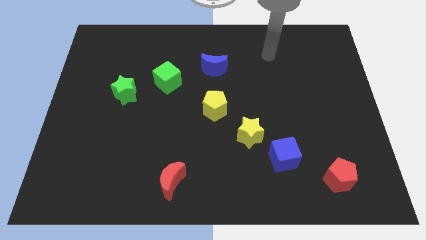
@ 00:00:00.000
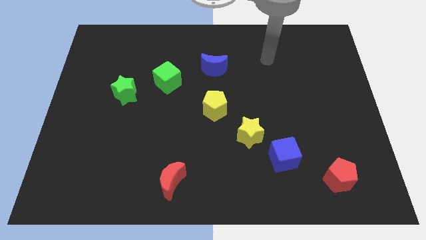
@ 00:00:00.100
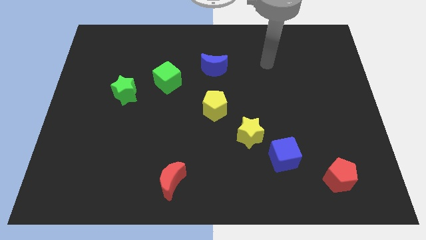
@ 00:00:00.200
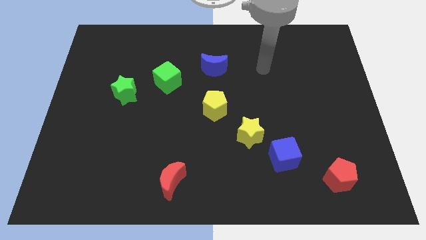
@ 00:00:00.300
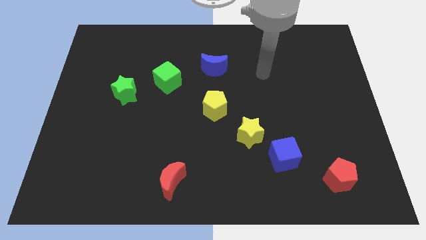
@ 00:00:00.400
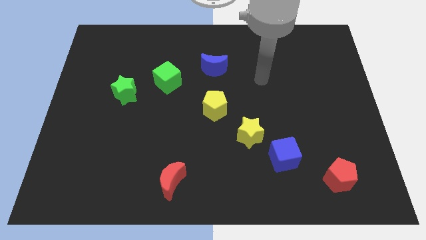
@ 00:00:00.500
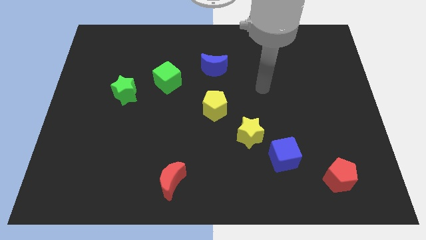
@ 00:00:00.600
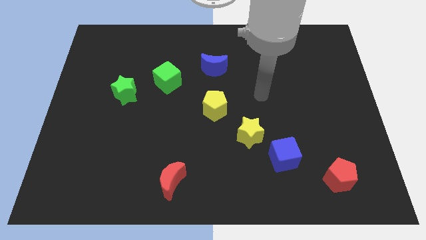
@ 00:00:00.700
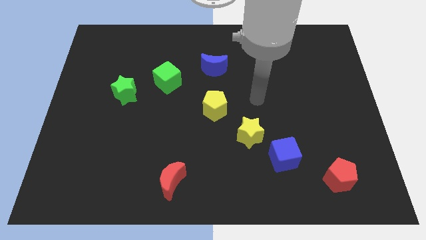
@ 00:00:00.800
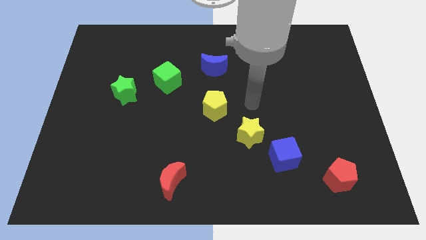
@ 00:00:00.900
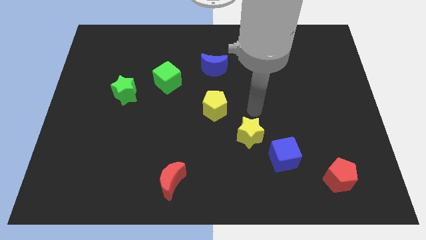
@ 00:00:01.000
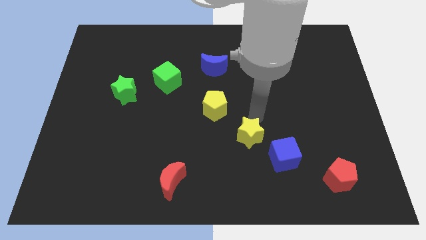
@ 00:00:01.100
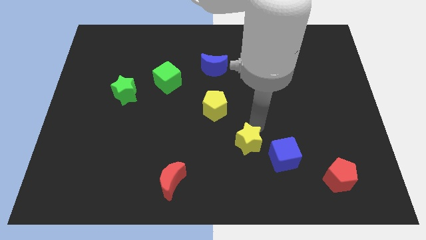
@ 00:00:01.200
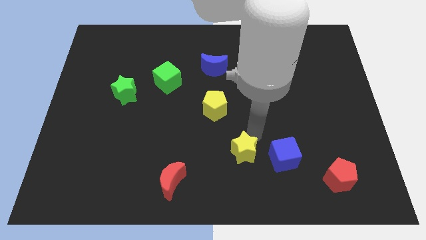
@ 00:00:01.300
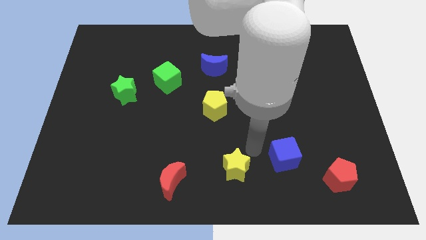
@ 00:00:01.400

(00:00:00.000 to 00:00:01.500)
separate the blue cube from the yellow star

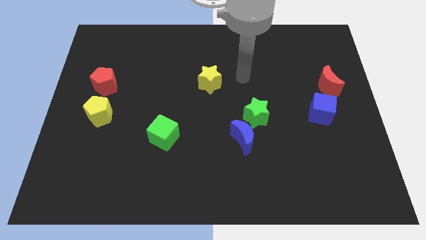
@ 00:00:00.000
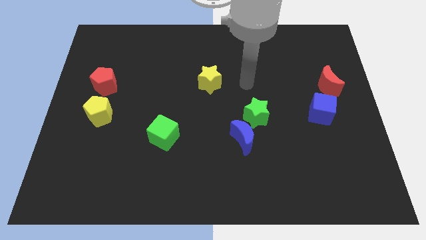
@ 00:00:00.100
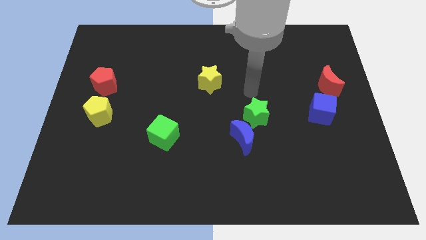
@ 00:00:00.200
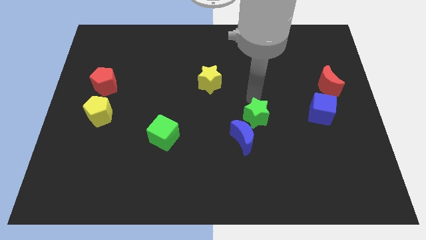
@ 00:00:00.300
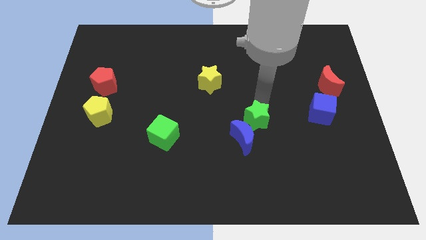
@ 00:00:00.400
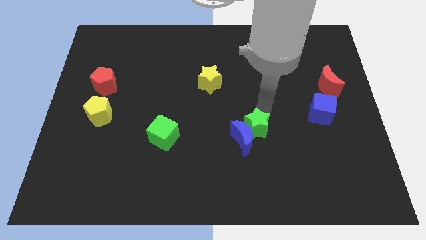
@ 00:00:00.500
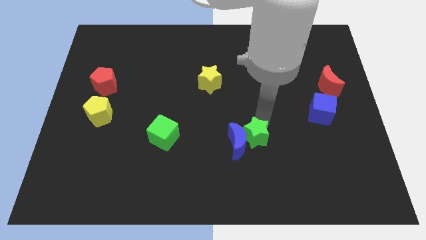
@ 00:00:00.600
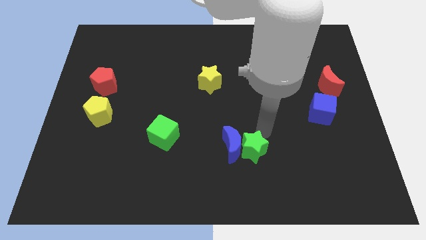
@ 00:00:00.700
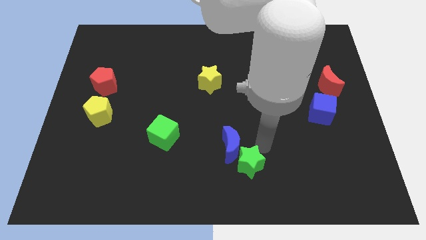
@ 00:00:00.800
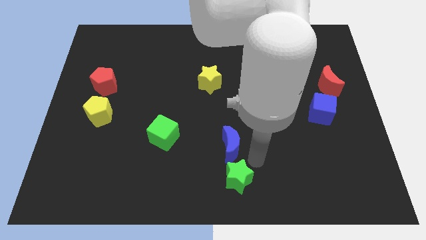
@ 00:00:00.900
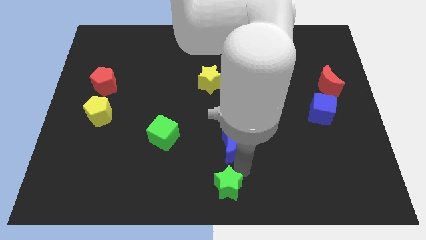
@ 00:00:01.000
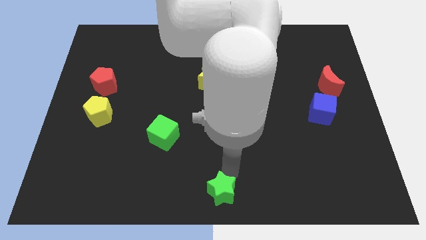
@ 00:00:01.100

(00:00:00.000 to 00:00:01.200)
pull the blue moon apart from the green star

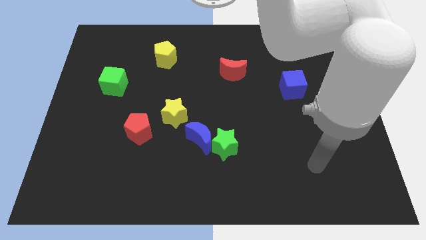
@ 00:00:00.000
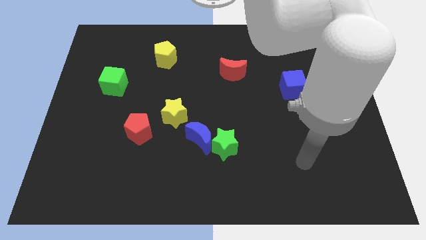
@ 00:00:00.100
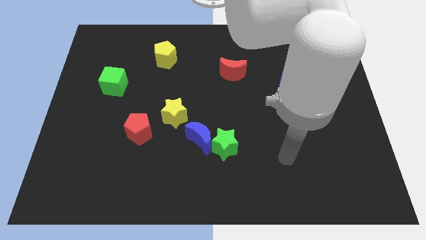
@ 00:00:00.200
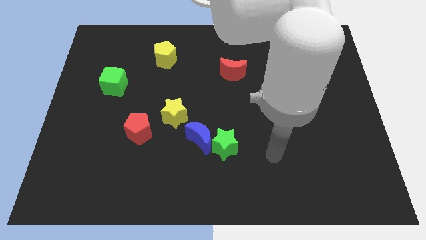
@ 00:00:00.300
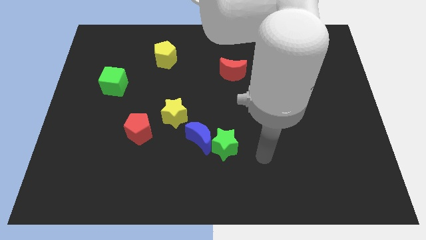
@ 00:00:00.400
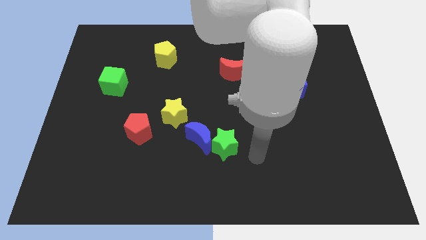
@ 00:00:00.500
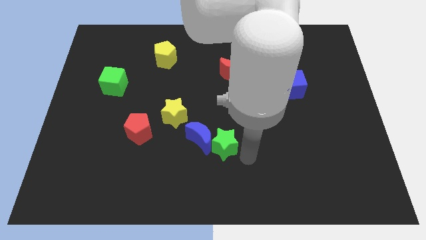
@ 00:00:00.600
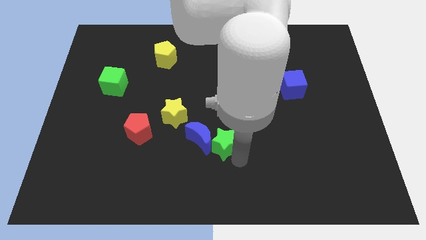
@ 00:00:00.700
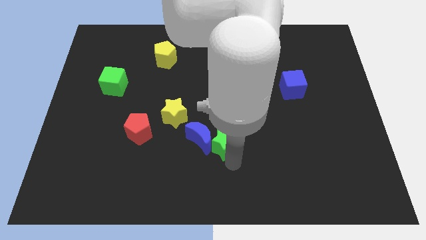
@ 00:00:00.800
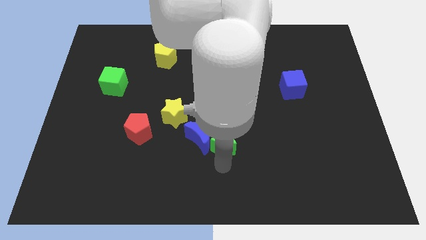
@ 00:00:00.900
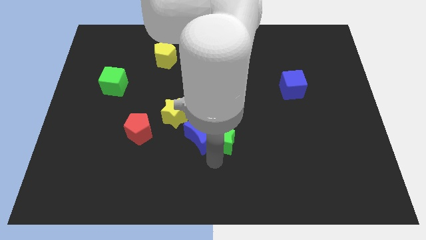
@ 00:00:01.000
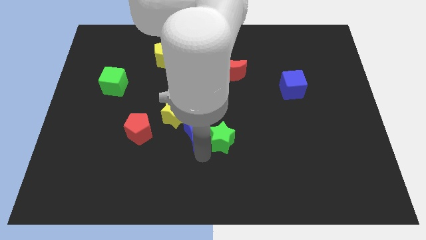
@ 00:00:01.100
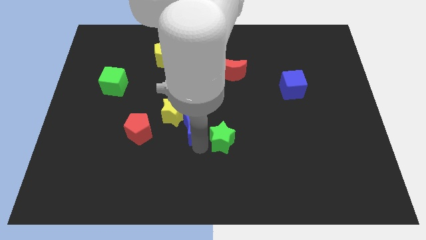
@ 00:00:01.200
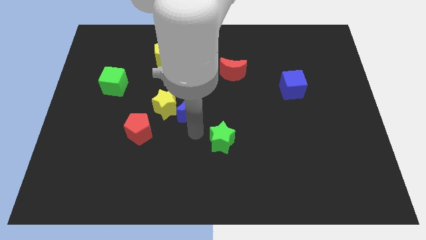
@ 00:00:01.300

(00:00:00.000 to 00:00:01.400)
separate the green star from the blue moon

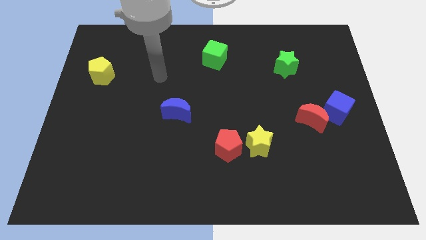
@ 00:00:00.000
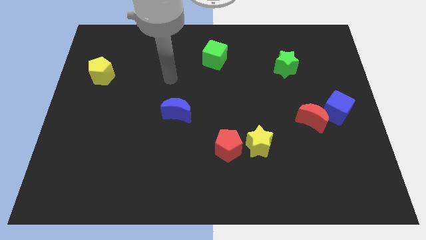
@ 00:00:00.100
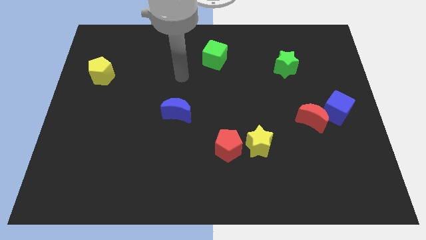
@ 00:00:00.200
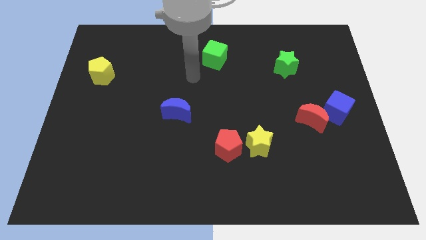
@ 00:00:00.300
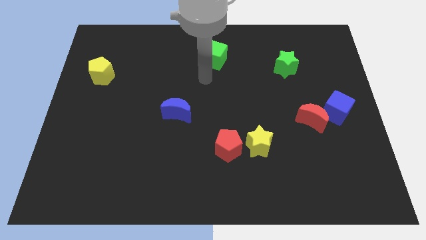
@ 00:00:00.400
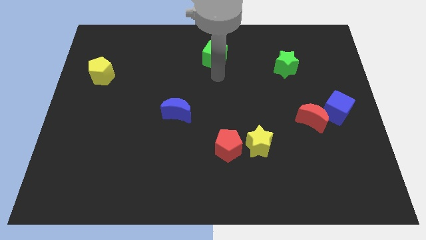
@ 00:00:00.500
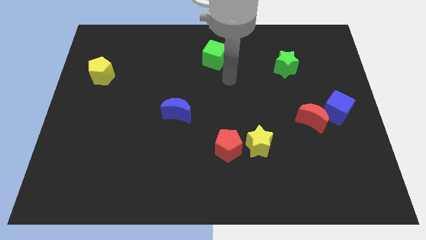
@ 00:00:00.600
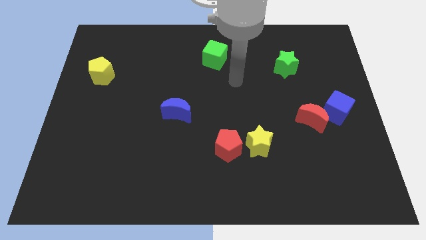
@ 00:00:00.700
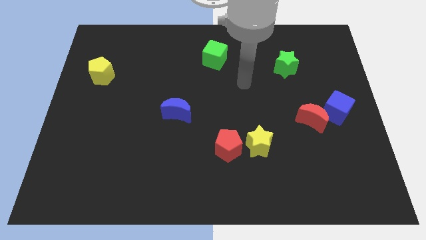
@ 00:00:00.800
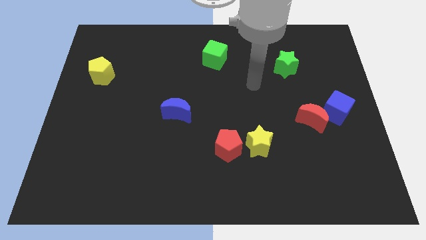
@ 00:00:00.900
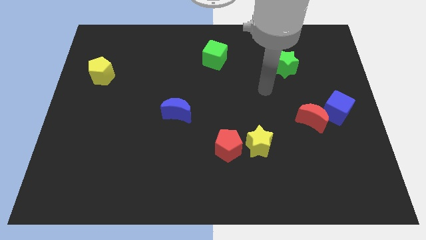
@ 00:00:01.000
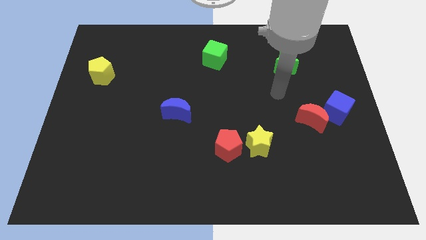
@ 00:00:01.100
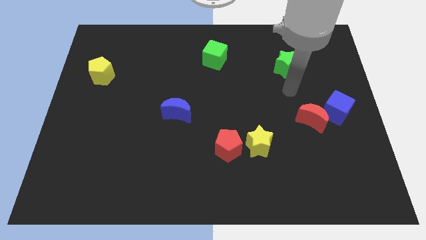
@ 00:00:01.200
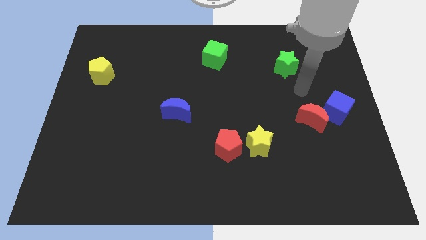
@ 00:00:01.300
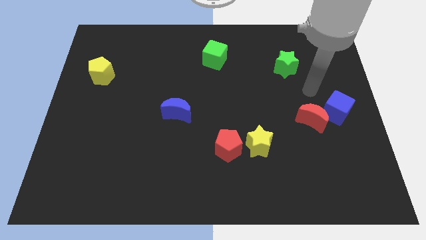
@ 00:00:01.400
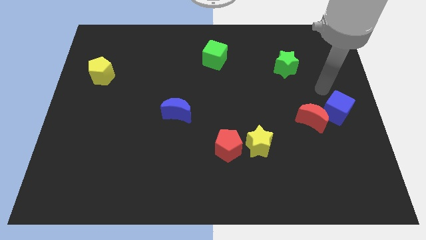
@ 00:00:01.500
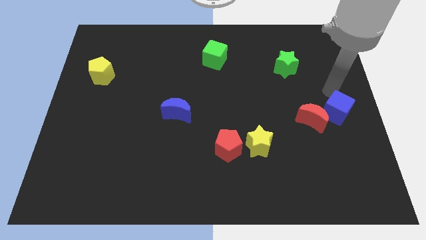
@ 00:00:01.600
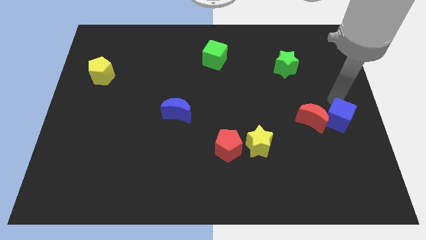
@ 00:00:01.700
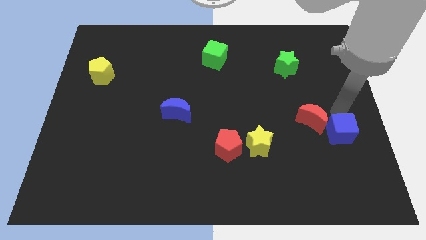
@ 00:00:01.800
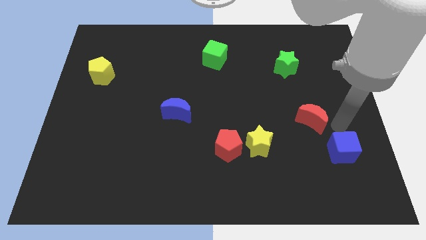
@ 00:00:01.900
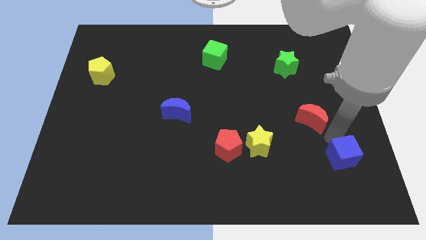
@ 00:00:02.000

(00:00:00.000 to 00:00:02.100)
pull the red moon apart from the blue cube

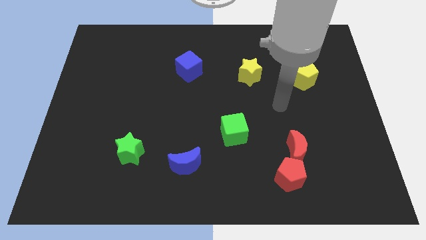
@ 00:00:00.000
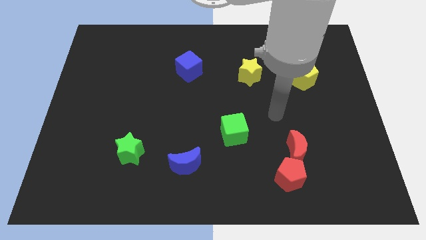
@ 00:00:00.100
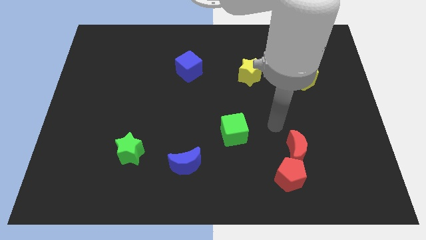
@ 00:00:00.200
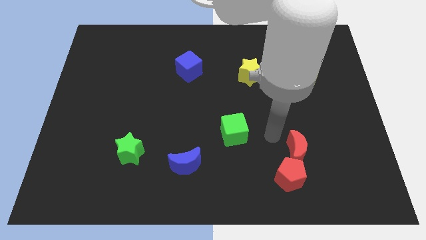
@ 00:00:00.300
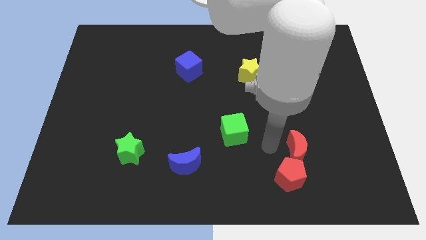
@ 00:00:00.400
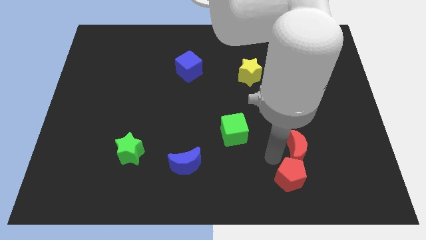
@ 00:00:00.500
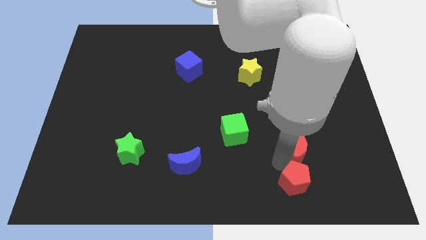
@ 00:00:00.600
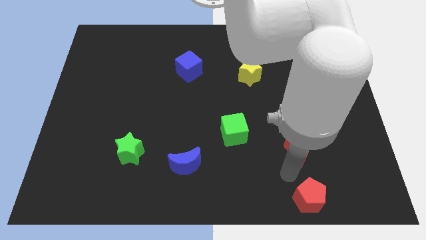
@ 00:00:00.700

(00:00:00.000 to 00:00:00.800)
separate the red moon from the red pentagon

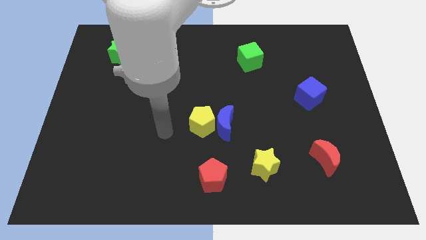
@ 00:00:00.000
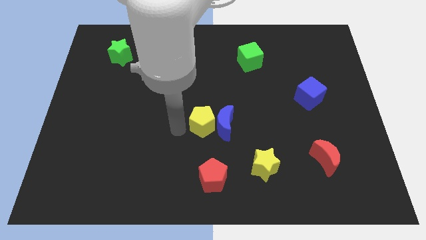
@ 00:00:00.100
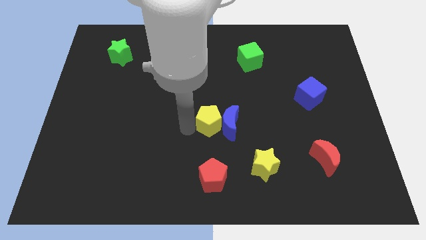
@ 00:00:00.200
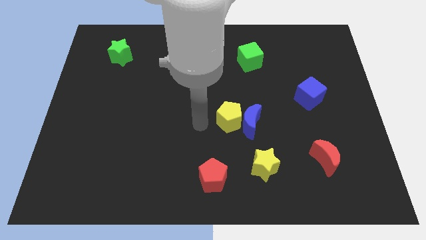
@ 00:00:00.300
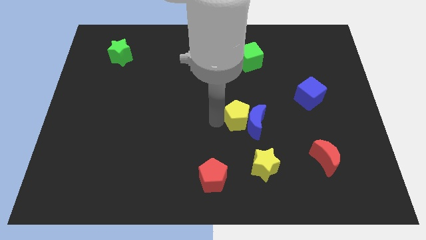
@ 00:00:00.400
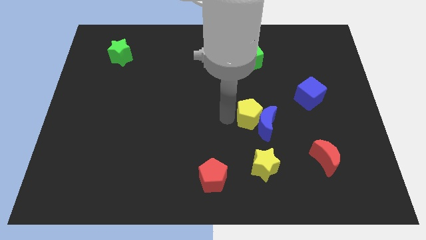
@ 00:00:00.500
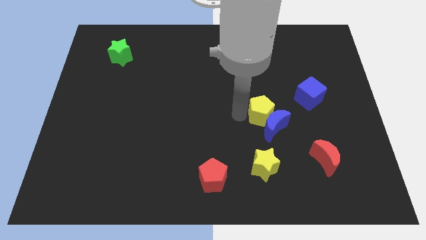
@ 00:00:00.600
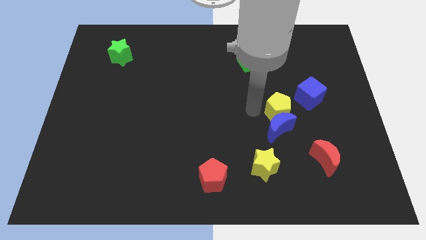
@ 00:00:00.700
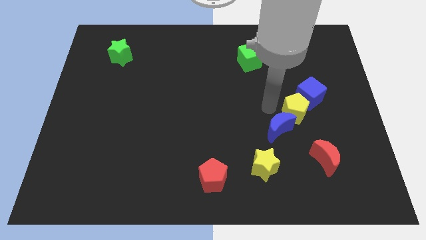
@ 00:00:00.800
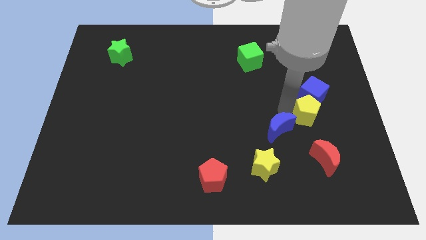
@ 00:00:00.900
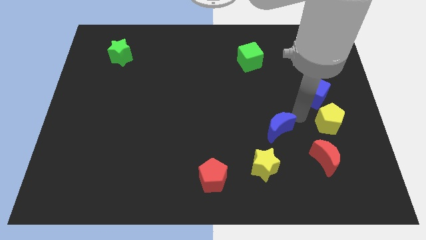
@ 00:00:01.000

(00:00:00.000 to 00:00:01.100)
move the blue moon away from the yellow pentagon

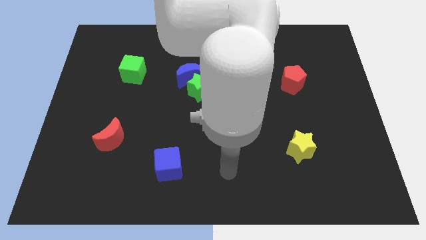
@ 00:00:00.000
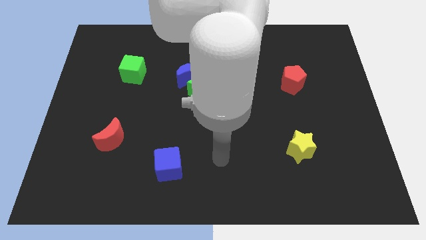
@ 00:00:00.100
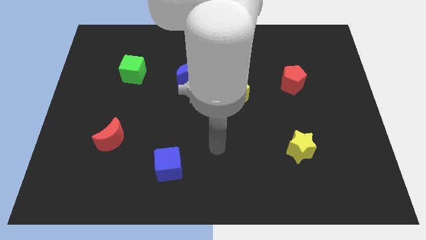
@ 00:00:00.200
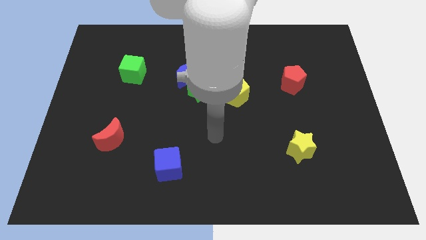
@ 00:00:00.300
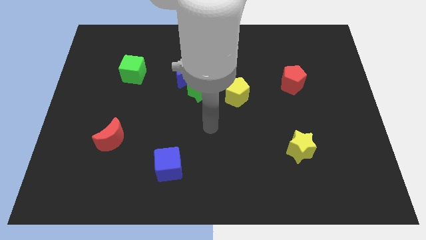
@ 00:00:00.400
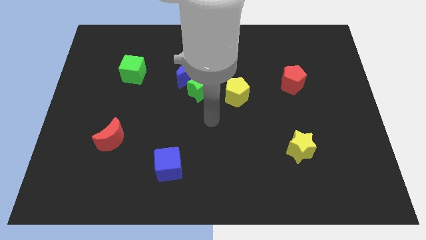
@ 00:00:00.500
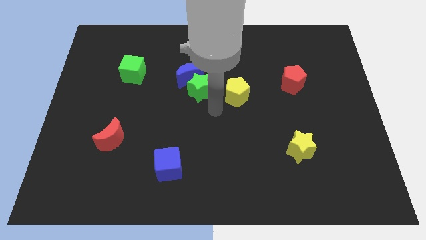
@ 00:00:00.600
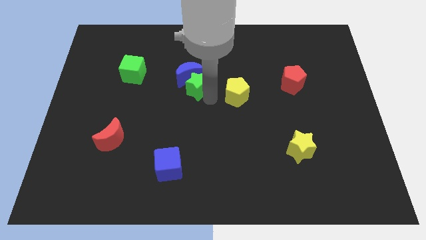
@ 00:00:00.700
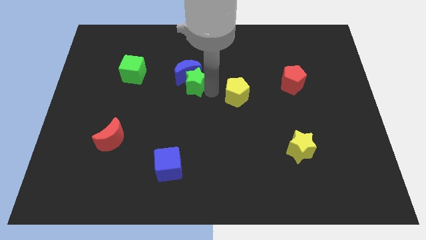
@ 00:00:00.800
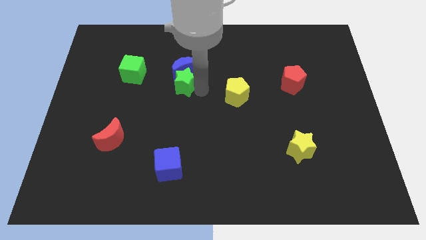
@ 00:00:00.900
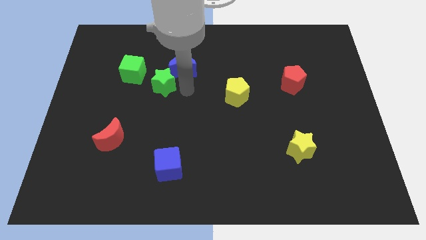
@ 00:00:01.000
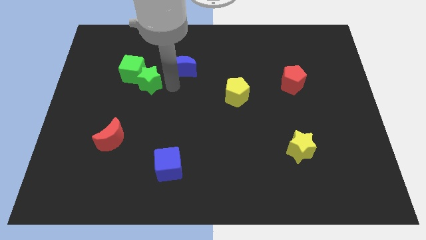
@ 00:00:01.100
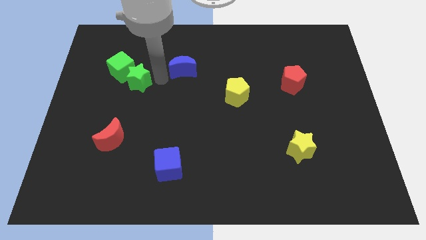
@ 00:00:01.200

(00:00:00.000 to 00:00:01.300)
move the blue moon away from the green star
